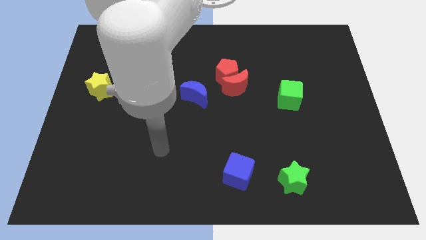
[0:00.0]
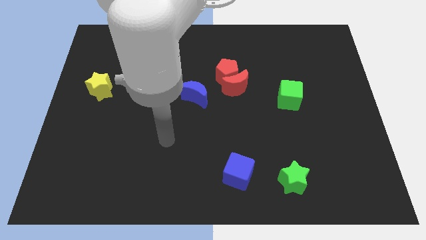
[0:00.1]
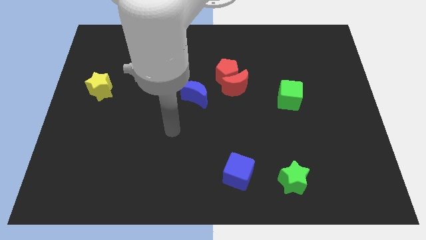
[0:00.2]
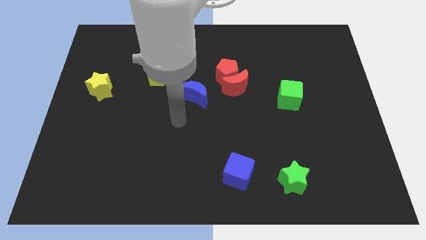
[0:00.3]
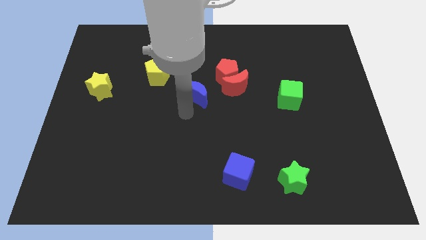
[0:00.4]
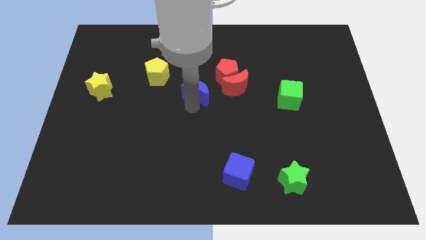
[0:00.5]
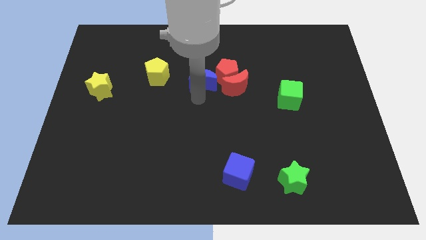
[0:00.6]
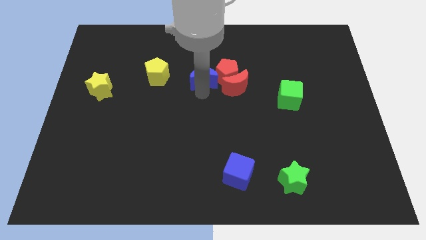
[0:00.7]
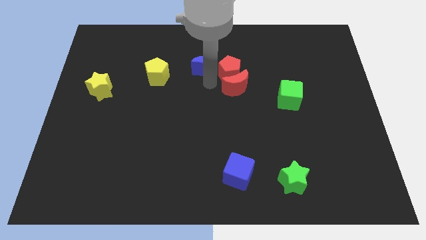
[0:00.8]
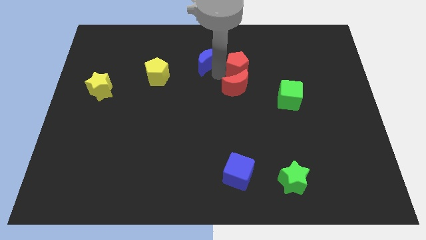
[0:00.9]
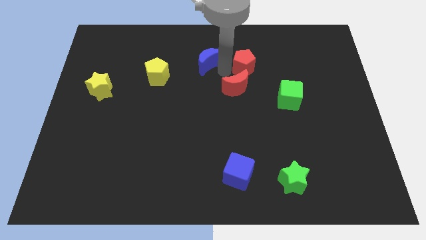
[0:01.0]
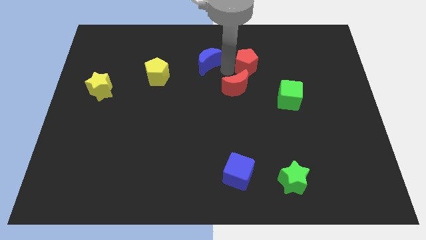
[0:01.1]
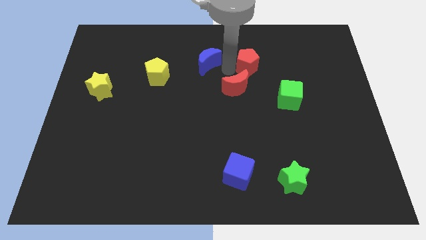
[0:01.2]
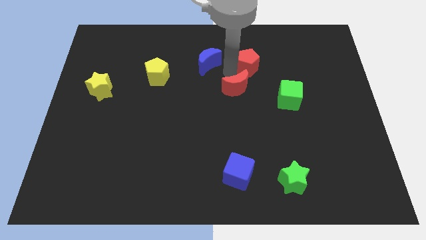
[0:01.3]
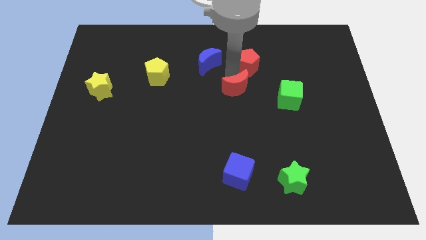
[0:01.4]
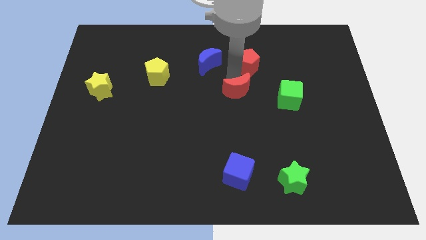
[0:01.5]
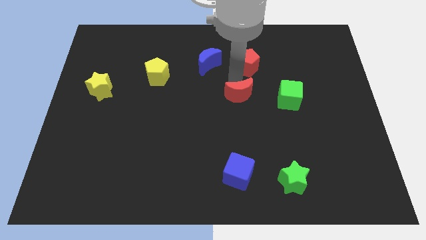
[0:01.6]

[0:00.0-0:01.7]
separate the red moon from the red pentagon and blue moon

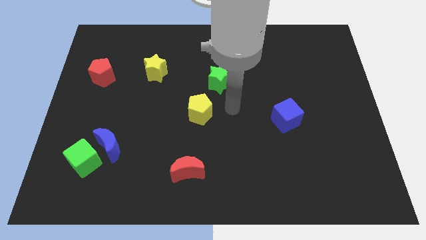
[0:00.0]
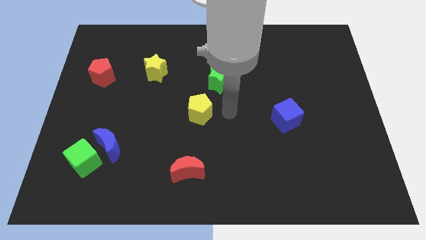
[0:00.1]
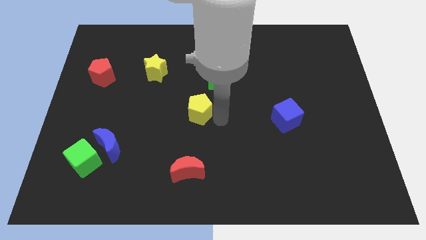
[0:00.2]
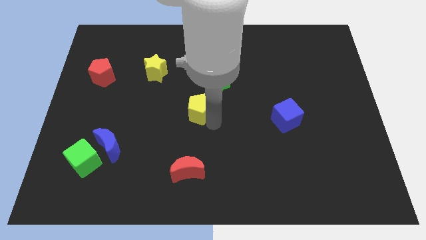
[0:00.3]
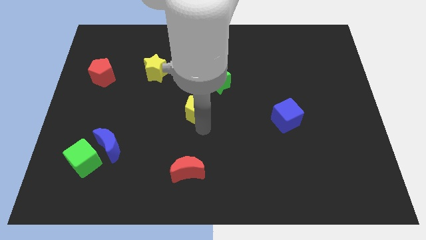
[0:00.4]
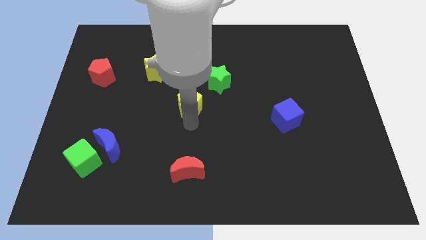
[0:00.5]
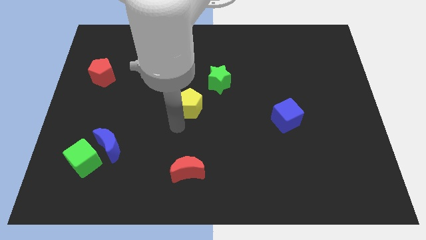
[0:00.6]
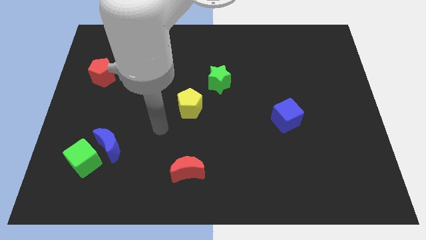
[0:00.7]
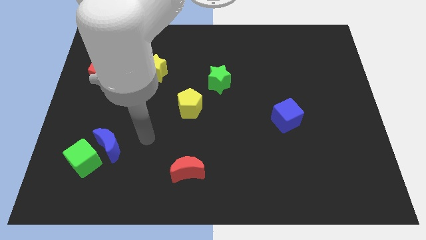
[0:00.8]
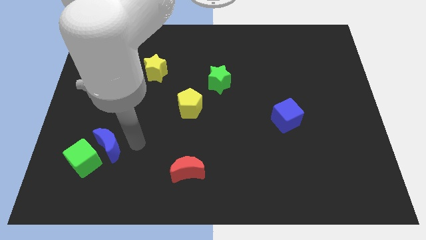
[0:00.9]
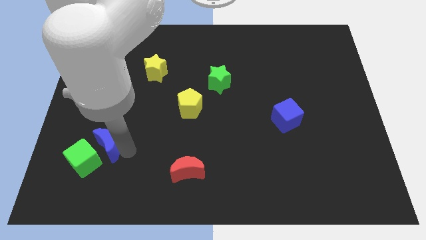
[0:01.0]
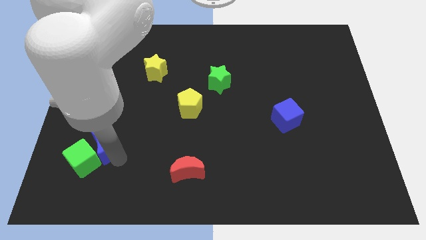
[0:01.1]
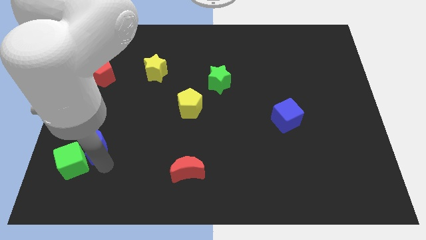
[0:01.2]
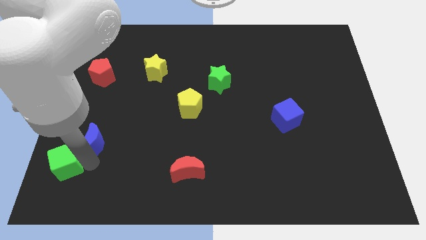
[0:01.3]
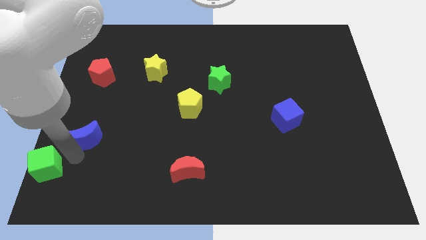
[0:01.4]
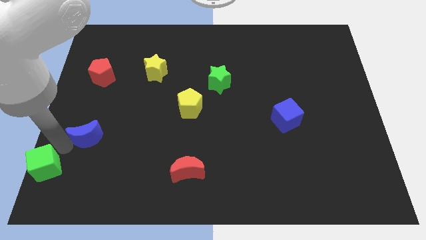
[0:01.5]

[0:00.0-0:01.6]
pull the blue moon apart from the green cube

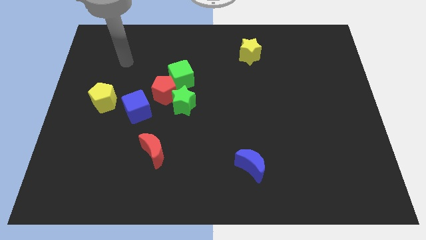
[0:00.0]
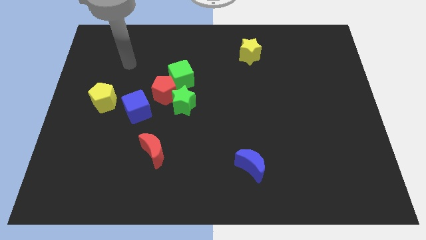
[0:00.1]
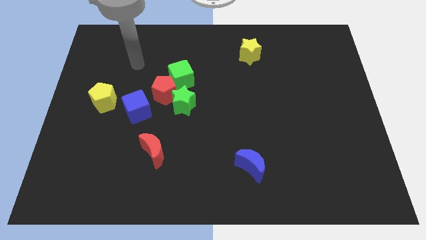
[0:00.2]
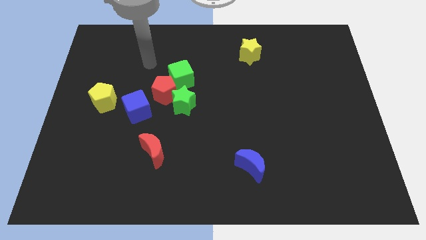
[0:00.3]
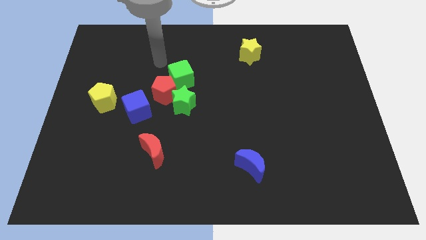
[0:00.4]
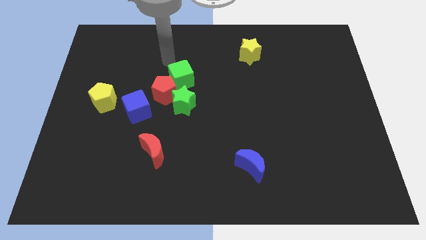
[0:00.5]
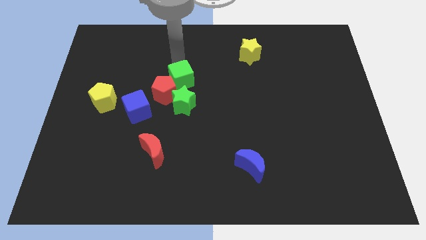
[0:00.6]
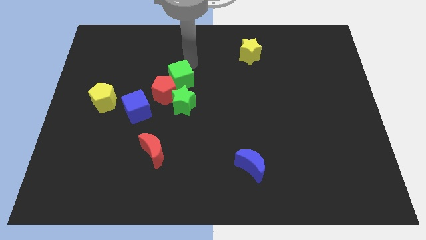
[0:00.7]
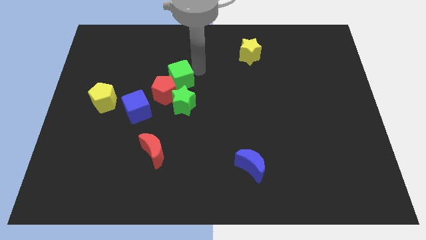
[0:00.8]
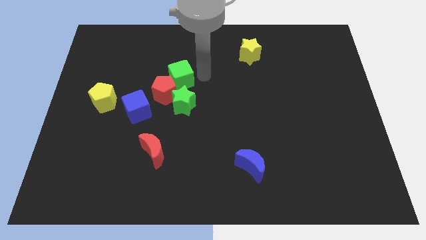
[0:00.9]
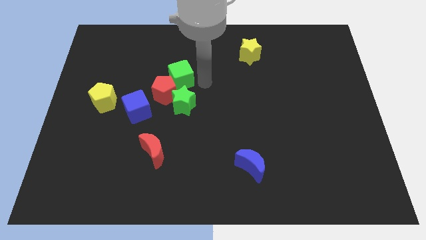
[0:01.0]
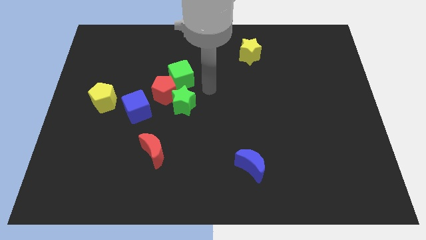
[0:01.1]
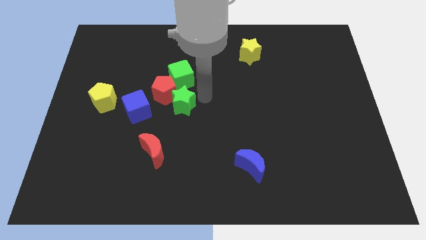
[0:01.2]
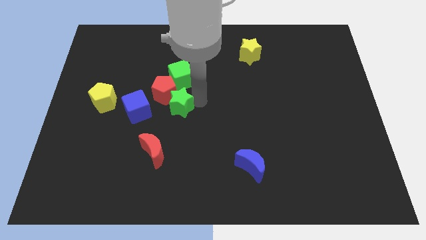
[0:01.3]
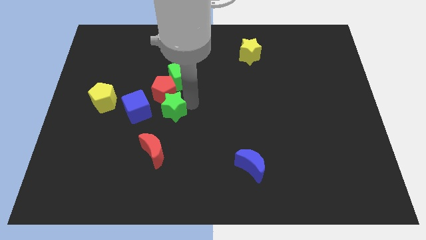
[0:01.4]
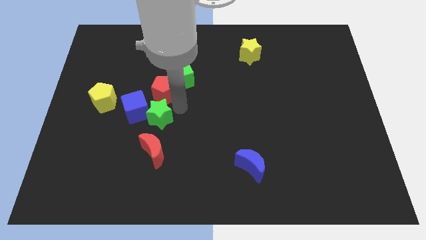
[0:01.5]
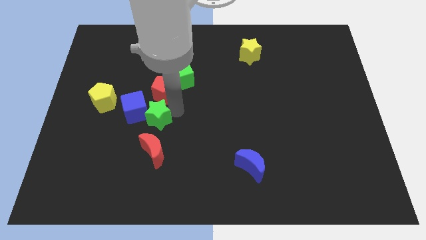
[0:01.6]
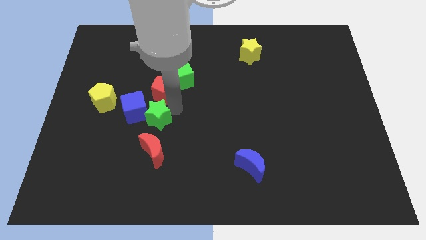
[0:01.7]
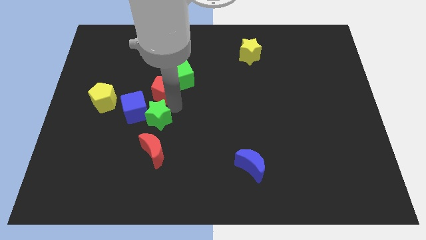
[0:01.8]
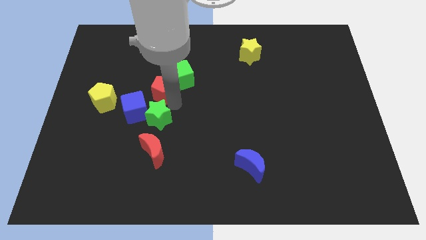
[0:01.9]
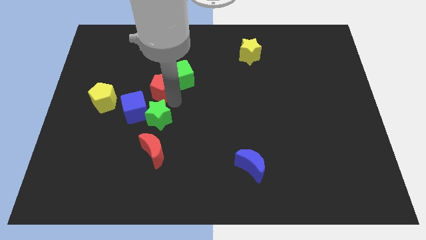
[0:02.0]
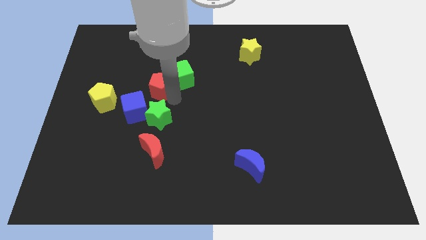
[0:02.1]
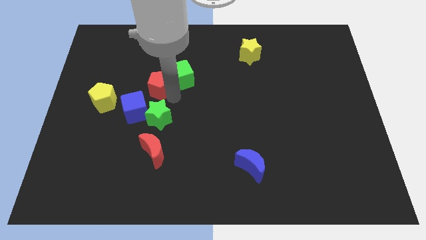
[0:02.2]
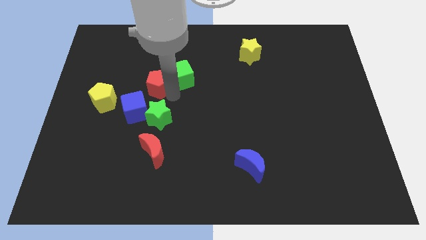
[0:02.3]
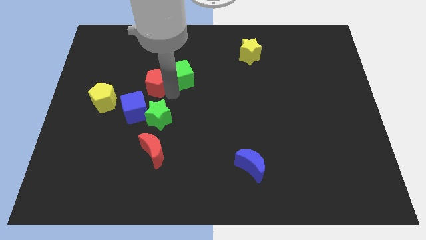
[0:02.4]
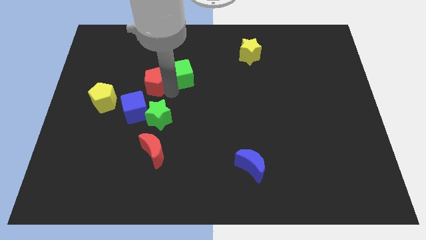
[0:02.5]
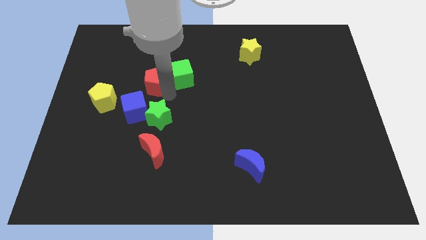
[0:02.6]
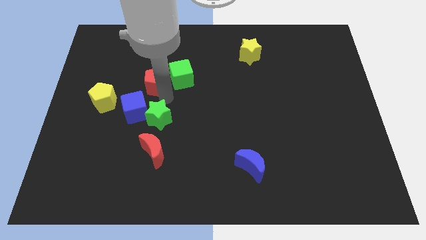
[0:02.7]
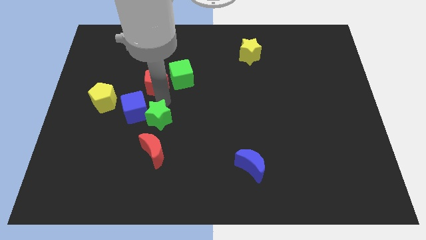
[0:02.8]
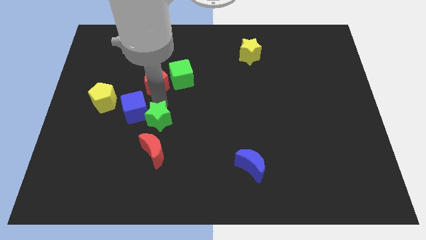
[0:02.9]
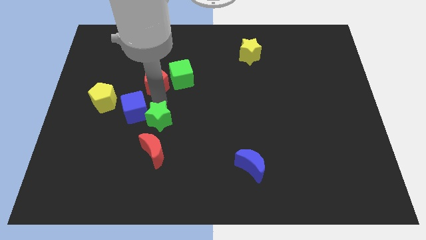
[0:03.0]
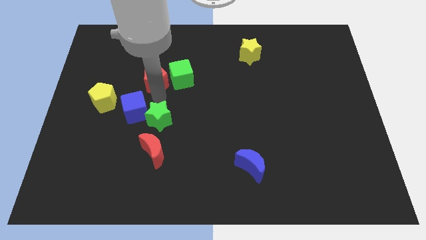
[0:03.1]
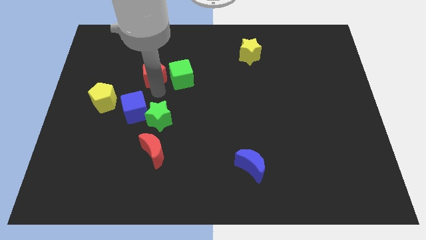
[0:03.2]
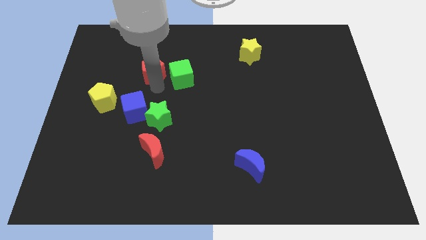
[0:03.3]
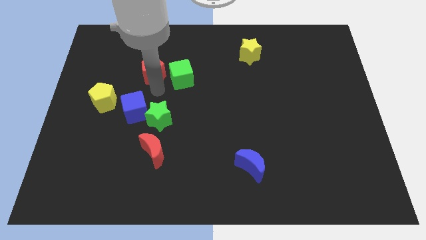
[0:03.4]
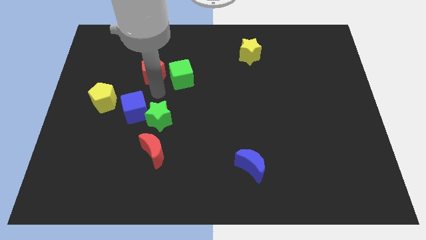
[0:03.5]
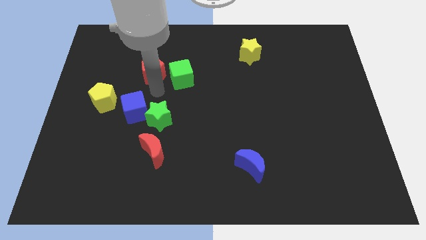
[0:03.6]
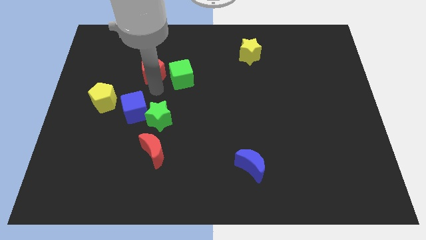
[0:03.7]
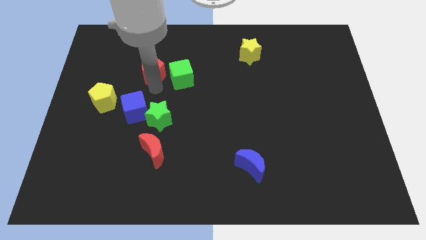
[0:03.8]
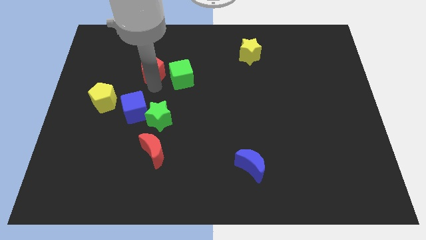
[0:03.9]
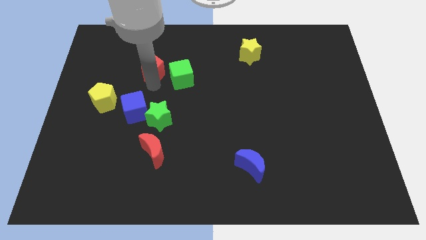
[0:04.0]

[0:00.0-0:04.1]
separate the red pentagon from the green star, green cube, and blue cube

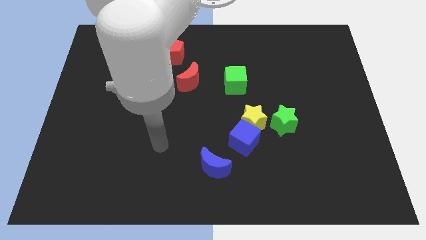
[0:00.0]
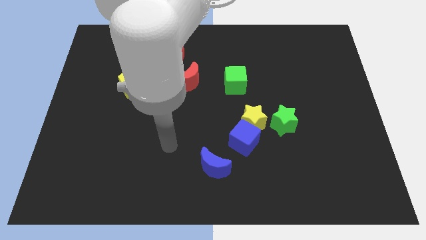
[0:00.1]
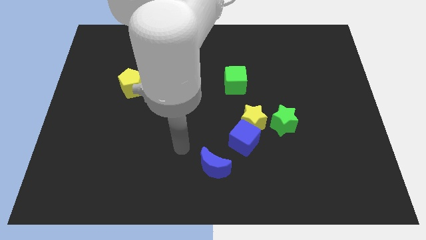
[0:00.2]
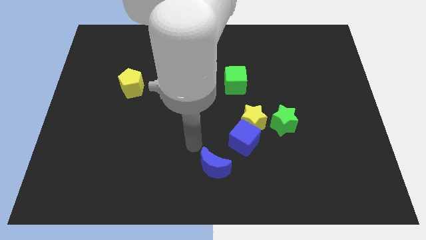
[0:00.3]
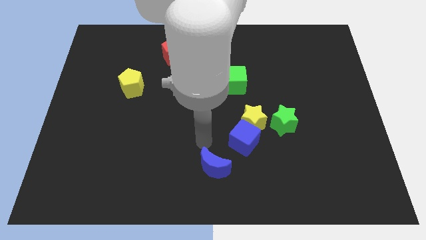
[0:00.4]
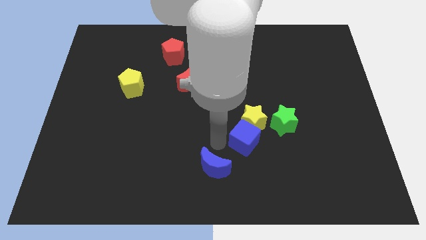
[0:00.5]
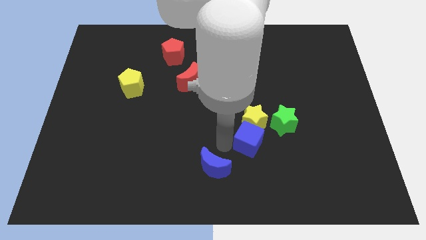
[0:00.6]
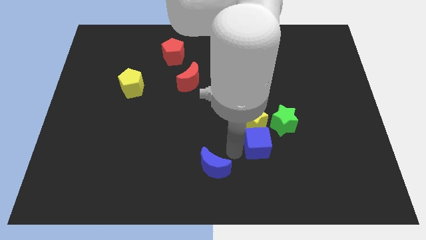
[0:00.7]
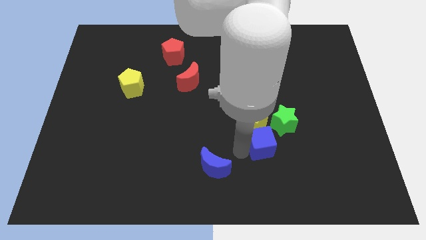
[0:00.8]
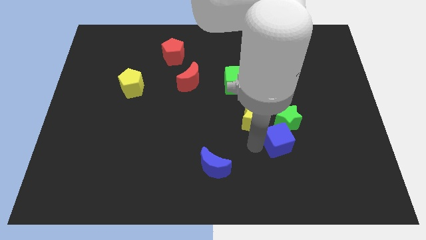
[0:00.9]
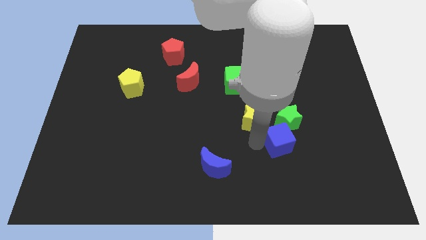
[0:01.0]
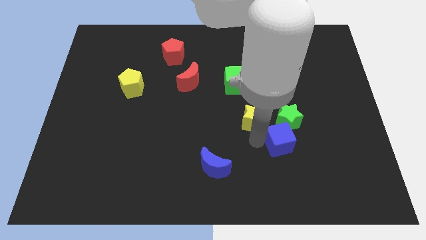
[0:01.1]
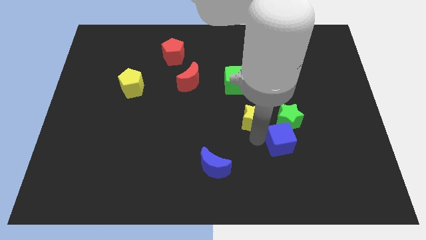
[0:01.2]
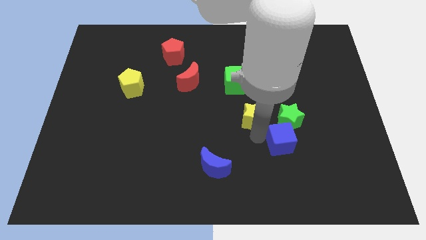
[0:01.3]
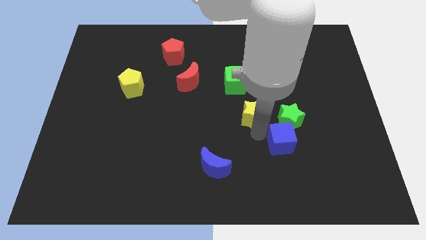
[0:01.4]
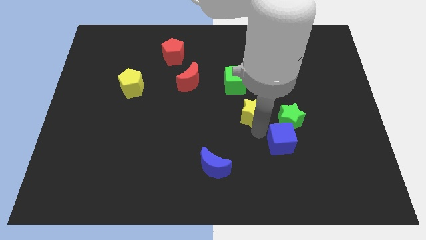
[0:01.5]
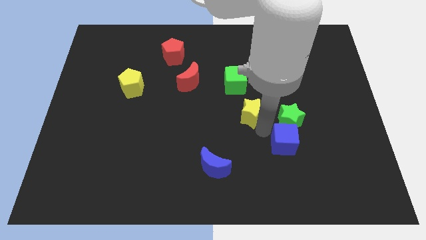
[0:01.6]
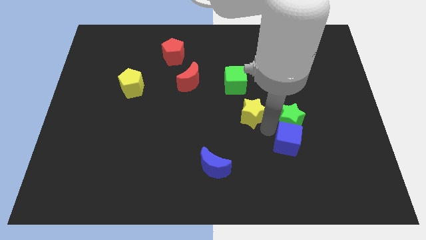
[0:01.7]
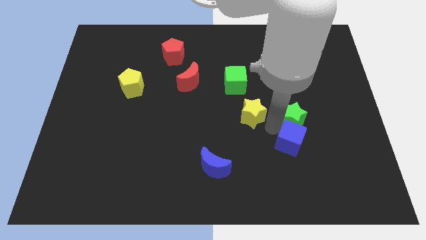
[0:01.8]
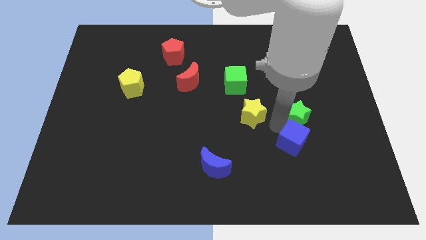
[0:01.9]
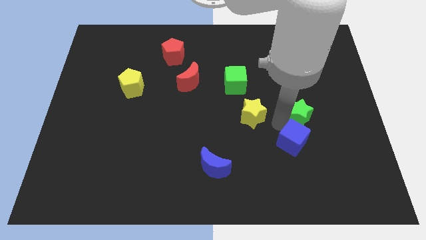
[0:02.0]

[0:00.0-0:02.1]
separate the yellow star from the blue cube and green star
